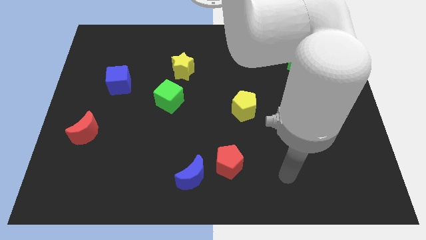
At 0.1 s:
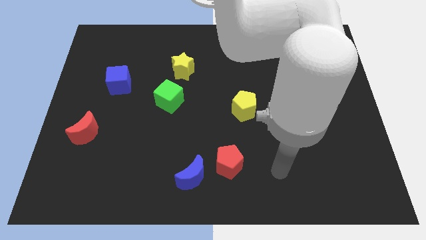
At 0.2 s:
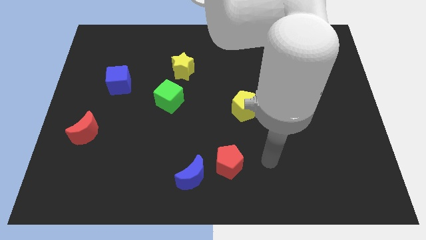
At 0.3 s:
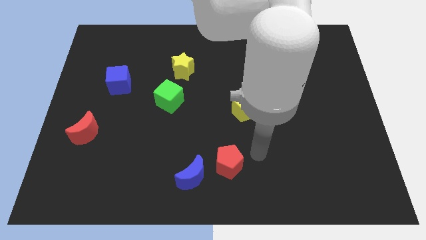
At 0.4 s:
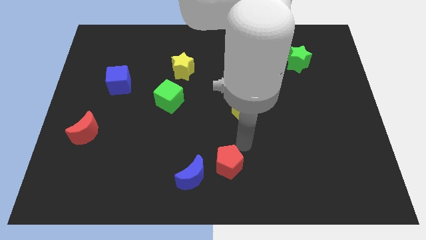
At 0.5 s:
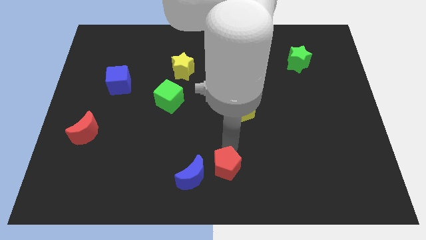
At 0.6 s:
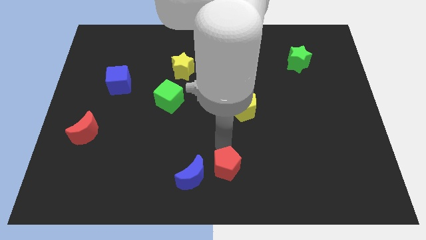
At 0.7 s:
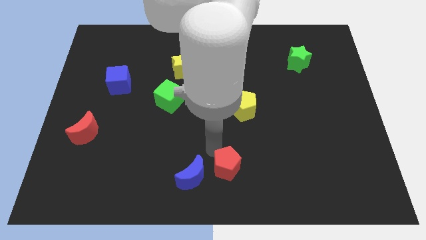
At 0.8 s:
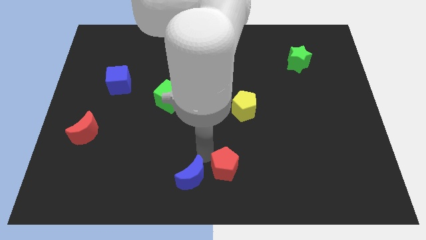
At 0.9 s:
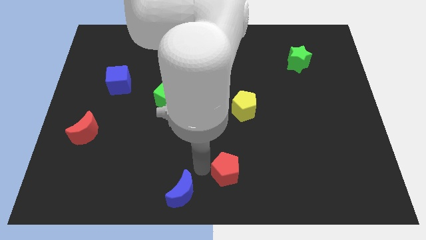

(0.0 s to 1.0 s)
separate the red pentagon from the blue moon

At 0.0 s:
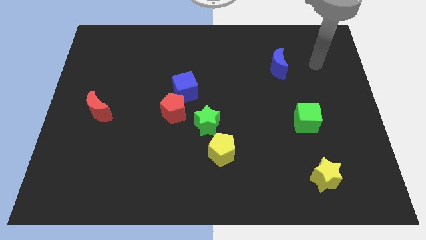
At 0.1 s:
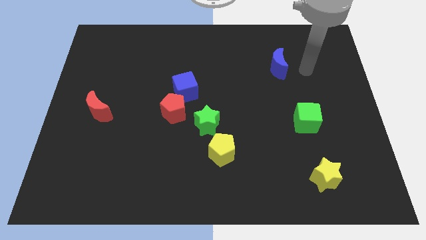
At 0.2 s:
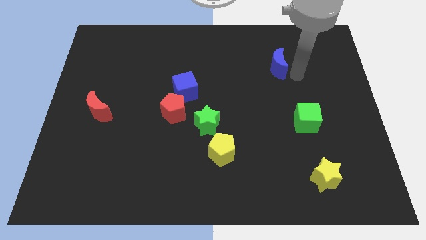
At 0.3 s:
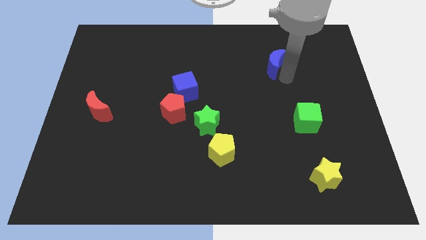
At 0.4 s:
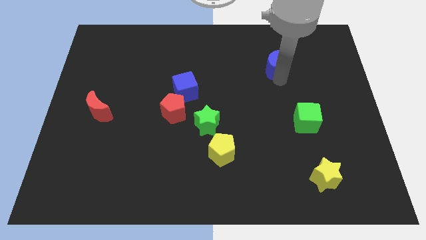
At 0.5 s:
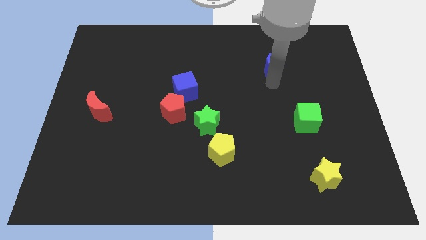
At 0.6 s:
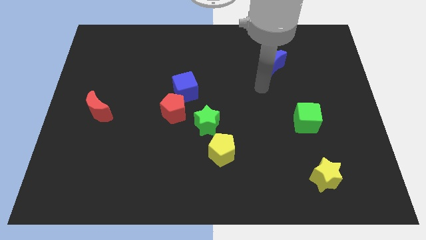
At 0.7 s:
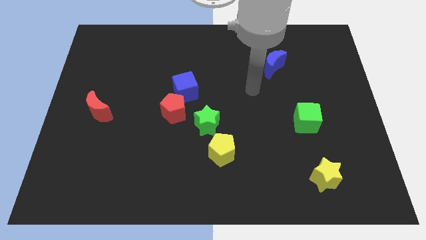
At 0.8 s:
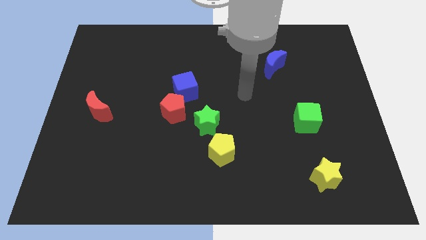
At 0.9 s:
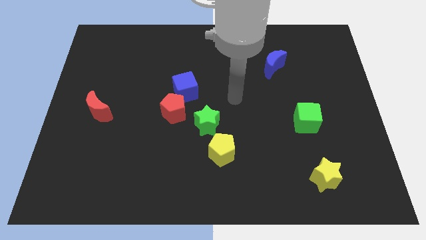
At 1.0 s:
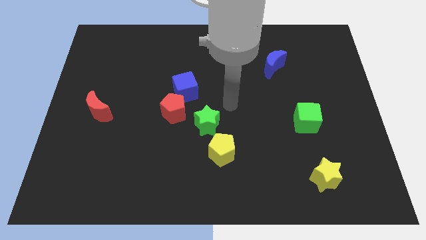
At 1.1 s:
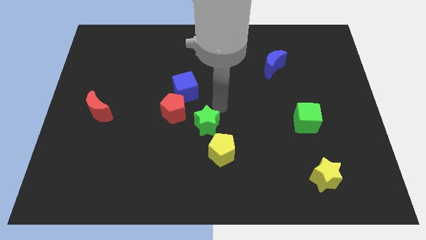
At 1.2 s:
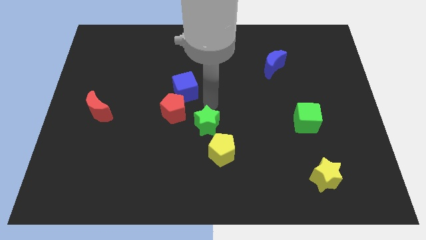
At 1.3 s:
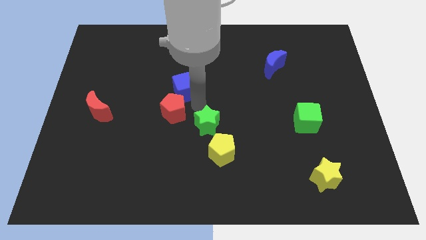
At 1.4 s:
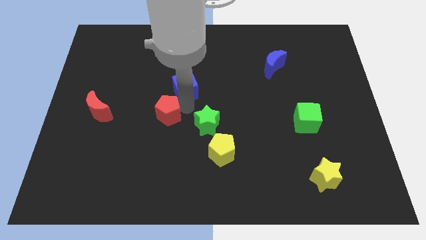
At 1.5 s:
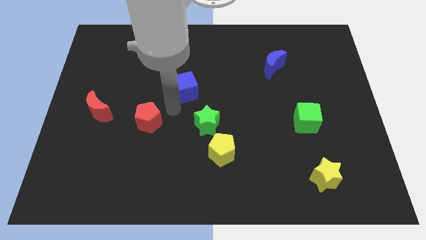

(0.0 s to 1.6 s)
move the blue cube away from the red pentagon

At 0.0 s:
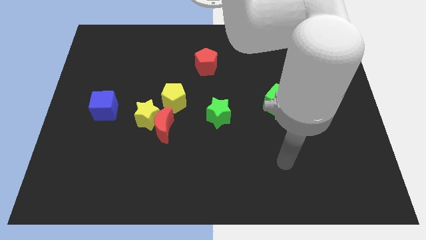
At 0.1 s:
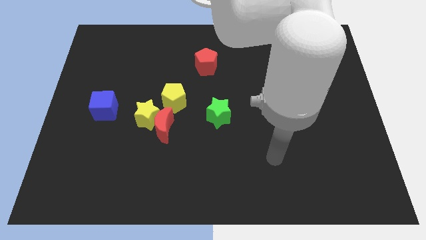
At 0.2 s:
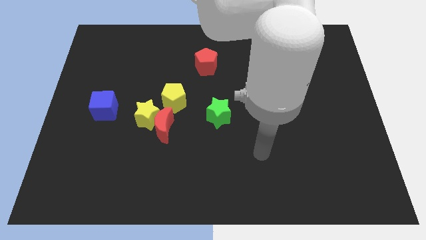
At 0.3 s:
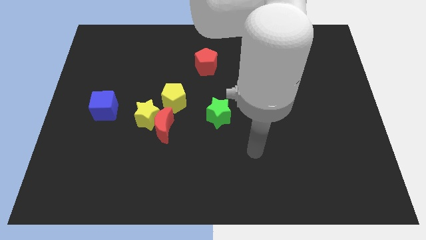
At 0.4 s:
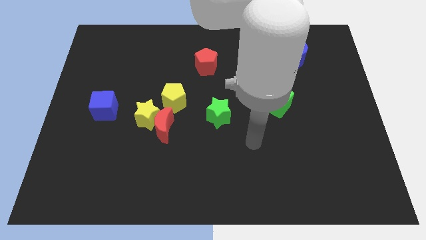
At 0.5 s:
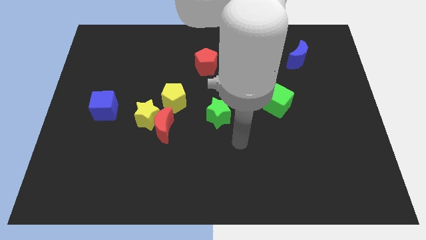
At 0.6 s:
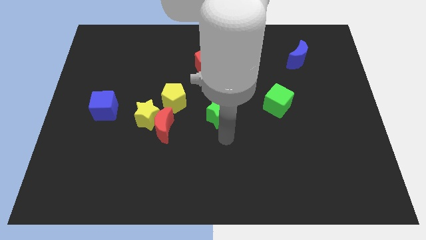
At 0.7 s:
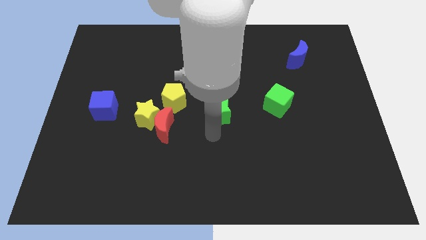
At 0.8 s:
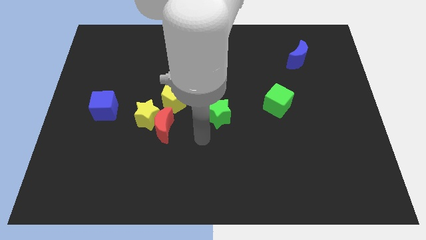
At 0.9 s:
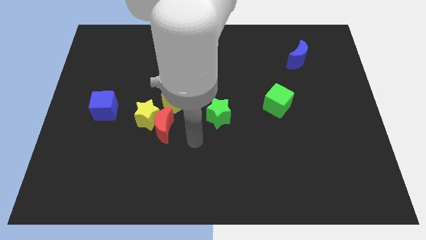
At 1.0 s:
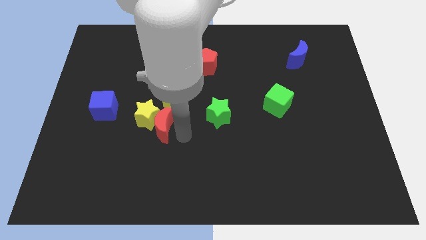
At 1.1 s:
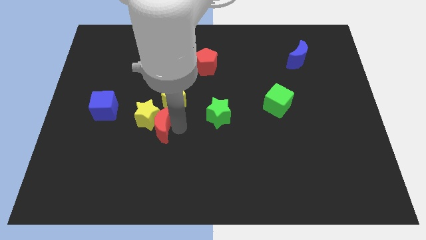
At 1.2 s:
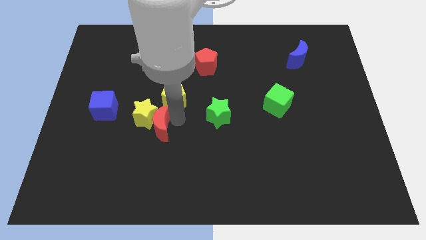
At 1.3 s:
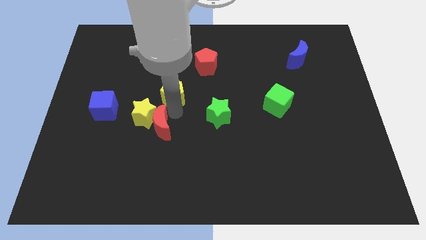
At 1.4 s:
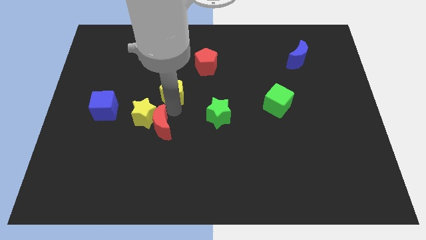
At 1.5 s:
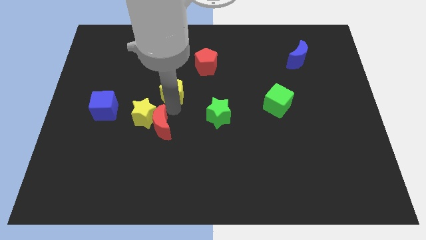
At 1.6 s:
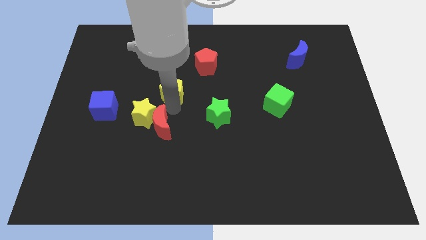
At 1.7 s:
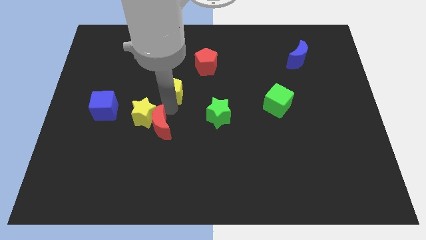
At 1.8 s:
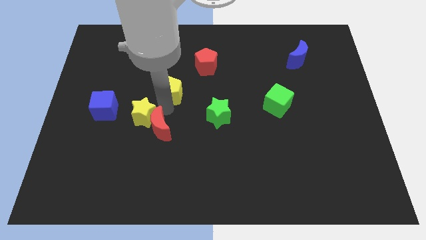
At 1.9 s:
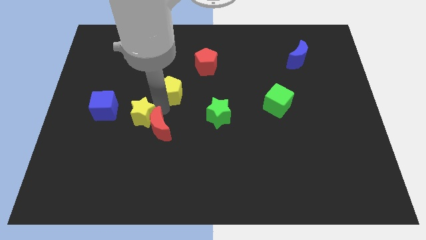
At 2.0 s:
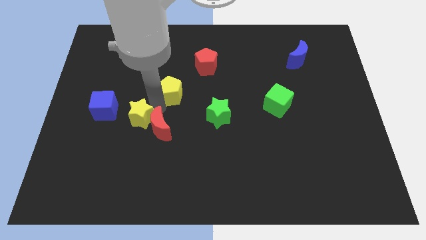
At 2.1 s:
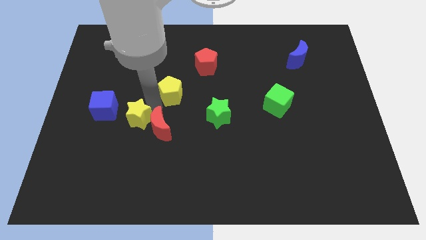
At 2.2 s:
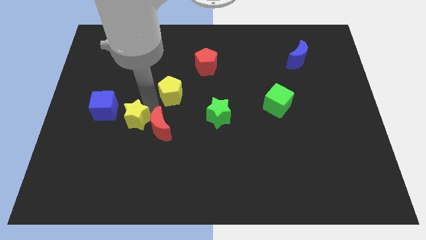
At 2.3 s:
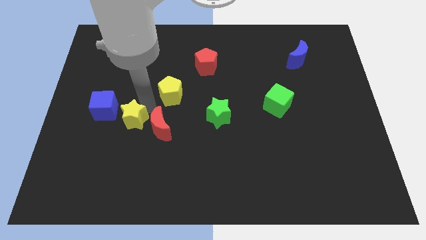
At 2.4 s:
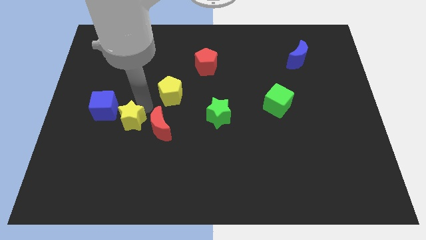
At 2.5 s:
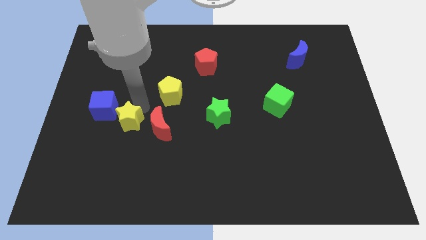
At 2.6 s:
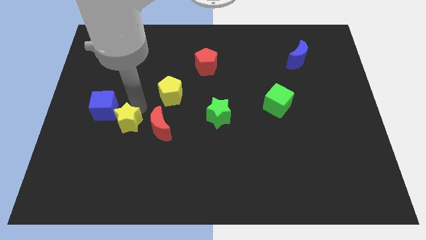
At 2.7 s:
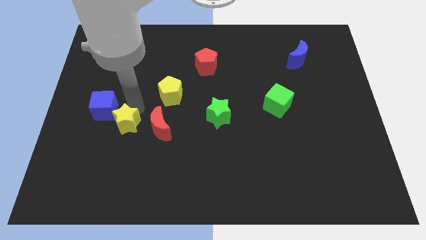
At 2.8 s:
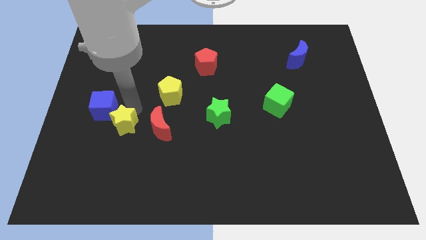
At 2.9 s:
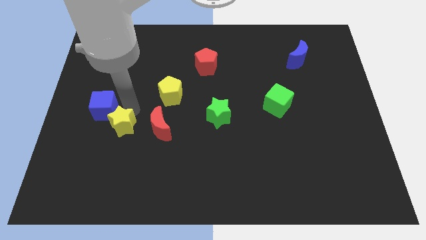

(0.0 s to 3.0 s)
pull the yellow star apart from the red moon and yellow pentagon

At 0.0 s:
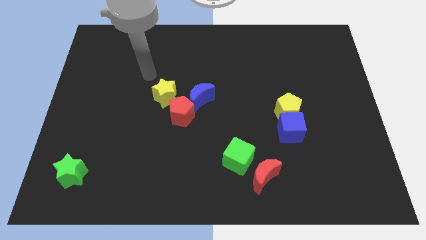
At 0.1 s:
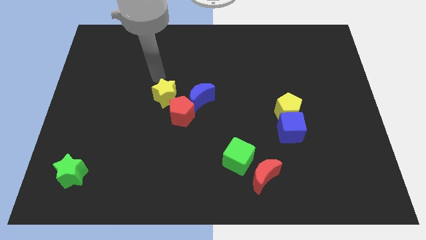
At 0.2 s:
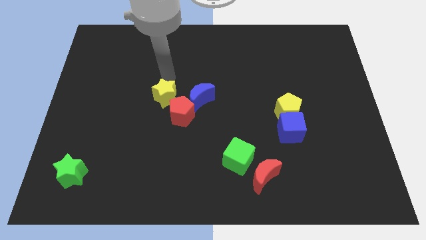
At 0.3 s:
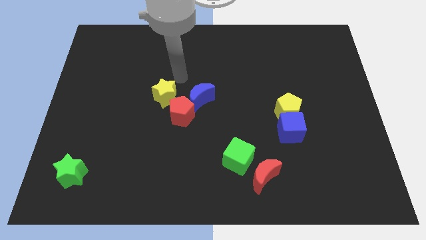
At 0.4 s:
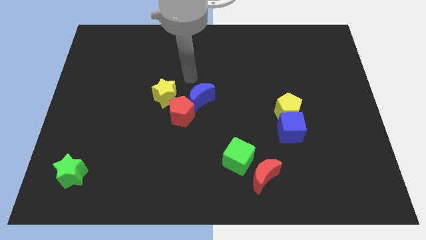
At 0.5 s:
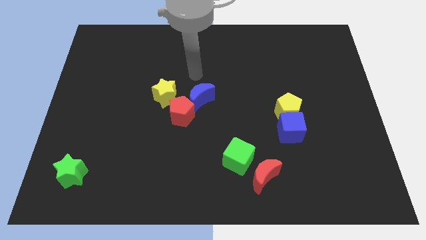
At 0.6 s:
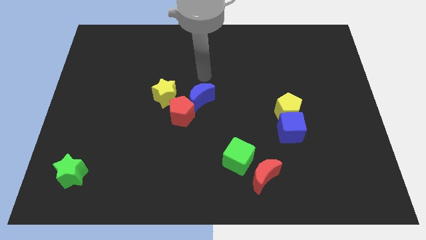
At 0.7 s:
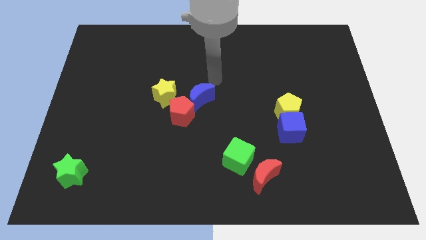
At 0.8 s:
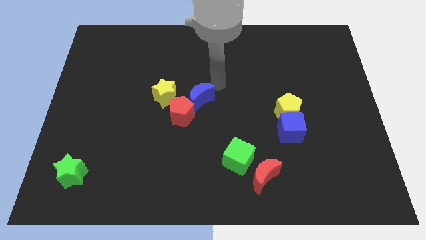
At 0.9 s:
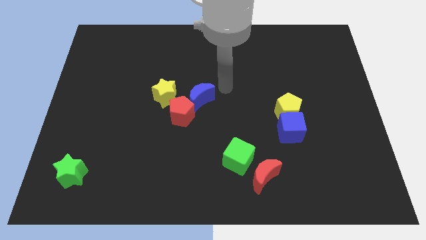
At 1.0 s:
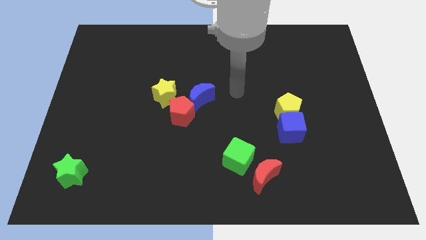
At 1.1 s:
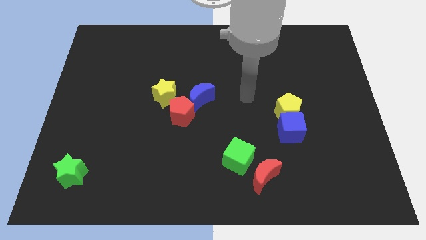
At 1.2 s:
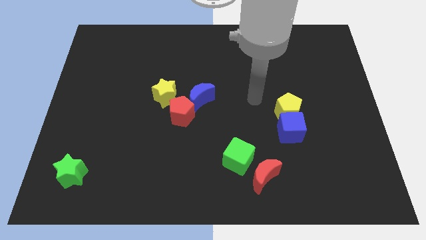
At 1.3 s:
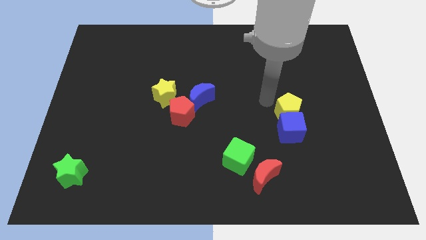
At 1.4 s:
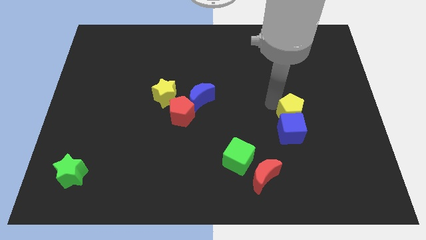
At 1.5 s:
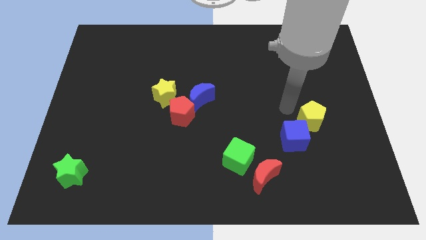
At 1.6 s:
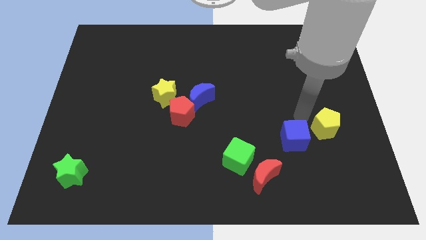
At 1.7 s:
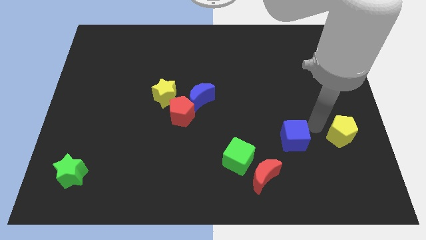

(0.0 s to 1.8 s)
separate the blue cube from the yellow pentagon

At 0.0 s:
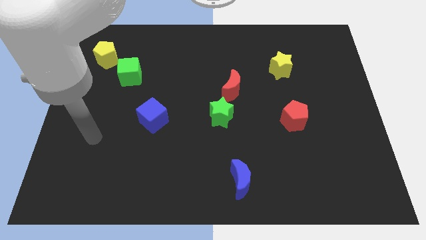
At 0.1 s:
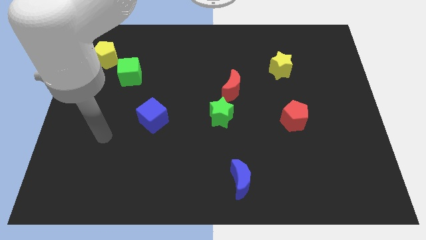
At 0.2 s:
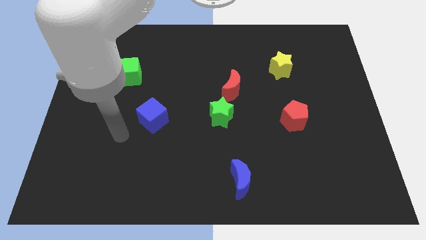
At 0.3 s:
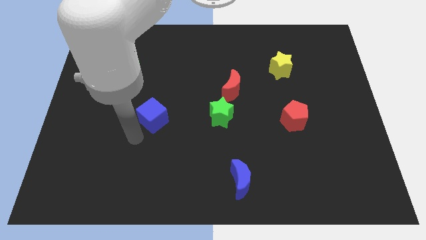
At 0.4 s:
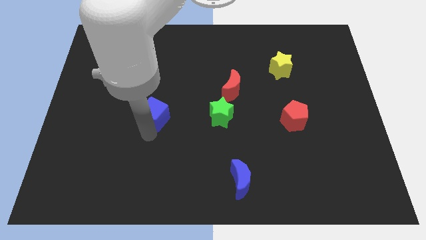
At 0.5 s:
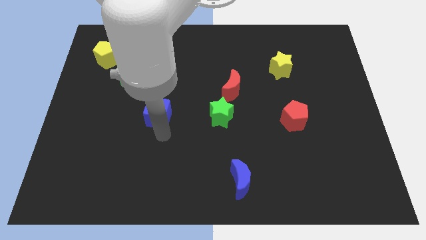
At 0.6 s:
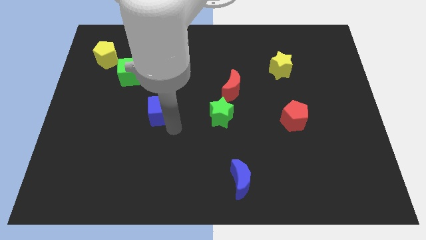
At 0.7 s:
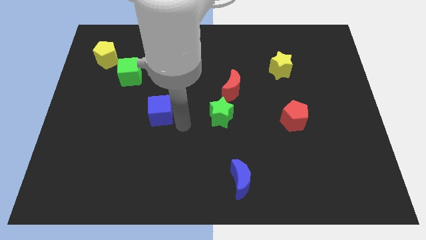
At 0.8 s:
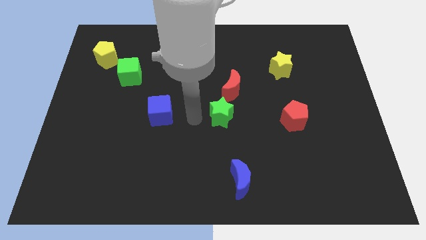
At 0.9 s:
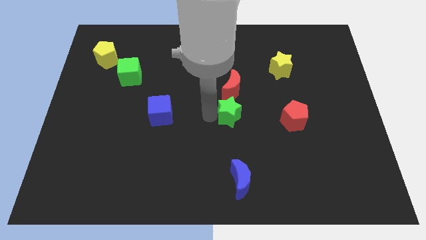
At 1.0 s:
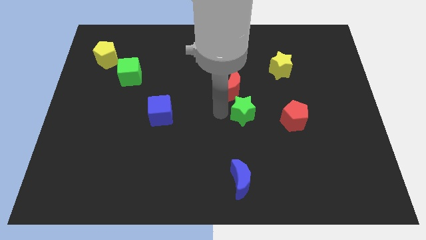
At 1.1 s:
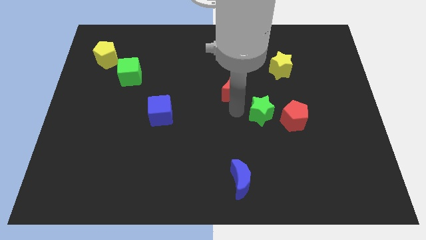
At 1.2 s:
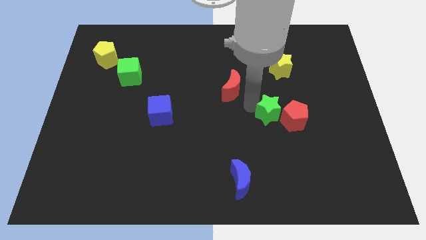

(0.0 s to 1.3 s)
pull the red moon apart from the green star

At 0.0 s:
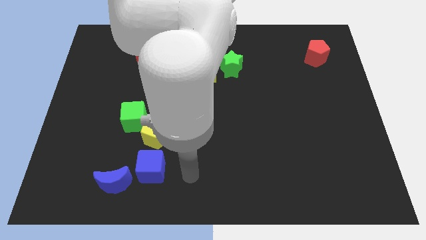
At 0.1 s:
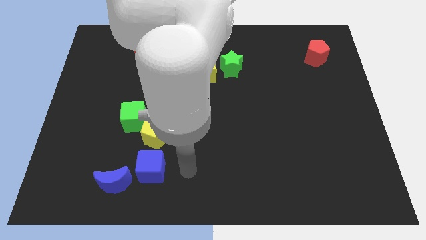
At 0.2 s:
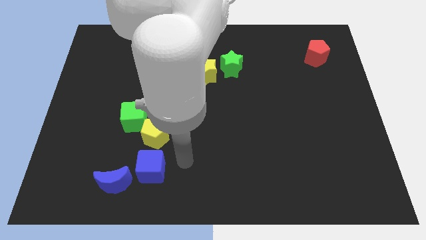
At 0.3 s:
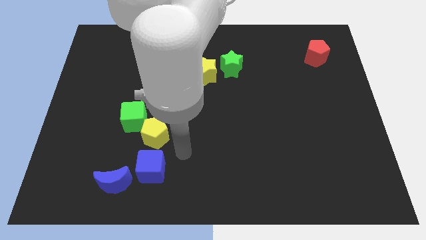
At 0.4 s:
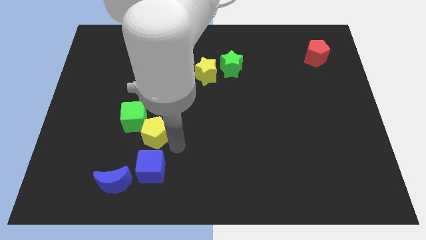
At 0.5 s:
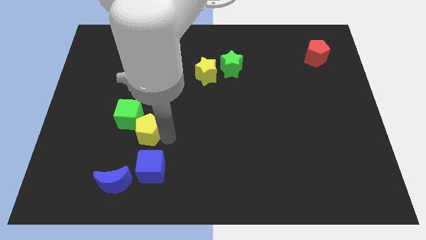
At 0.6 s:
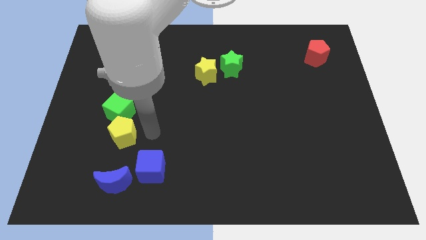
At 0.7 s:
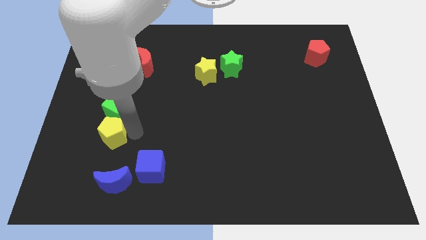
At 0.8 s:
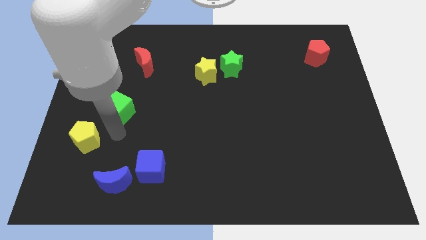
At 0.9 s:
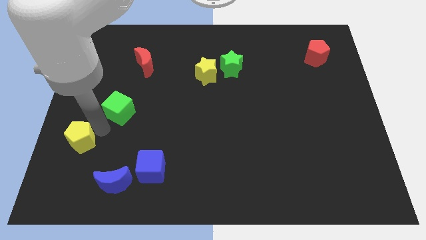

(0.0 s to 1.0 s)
separate the green cube from the yellow pentagon
